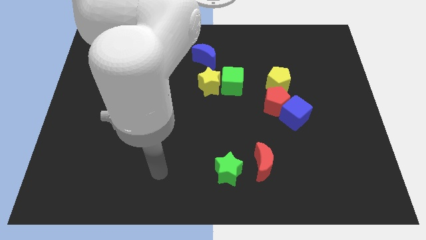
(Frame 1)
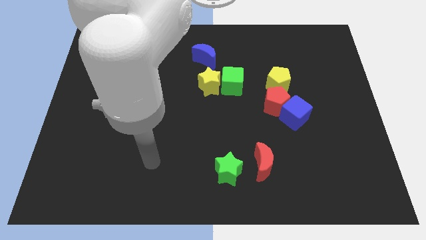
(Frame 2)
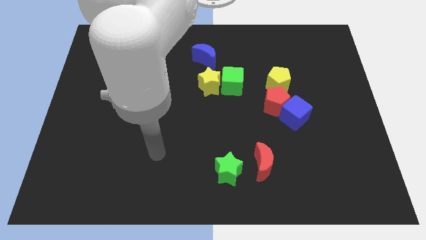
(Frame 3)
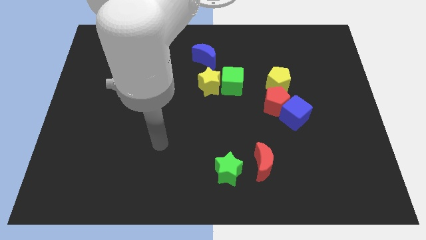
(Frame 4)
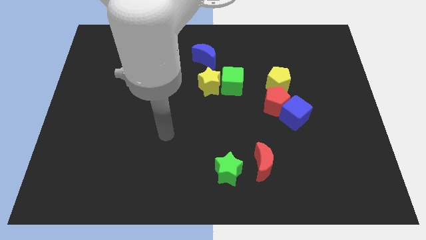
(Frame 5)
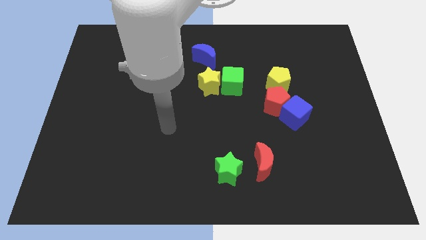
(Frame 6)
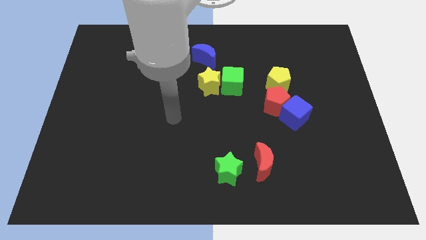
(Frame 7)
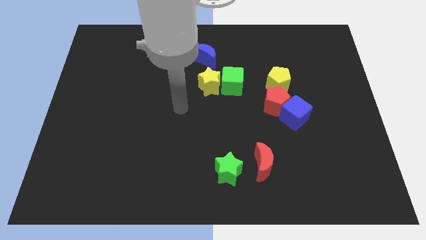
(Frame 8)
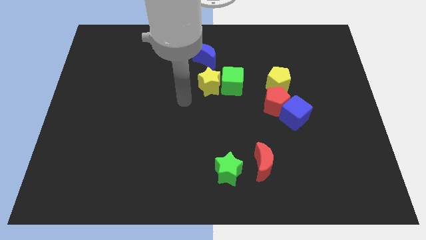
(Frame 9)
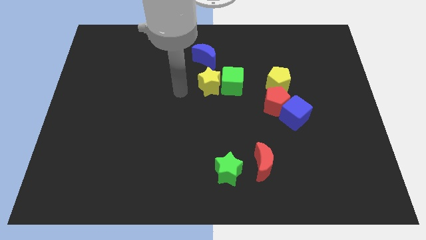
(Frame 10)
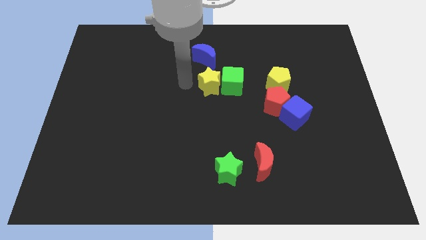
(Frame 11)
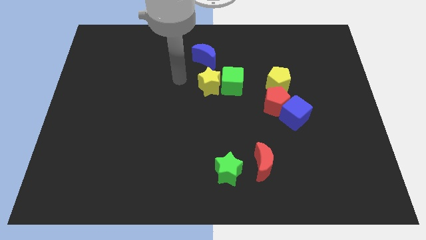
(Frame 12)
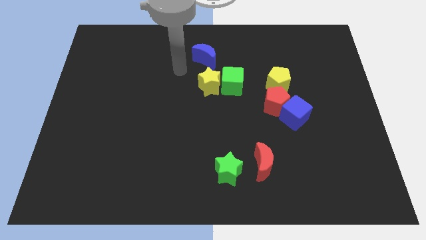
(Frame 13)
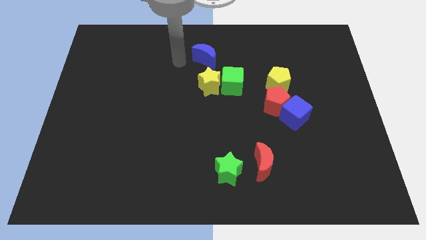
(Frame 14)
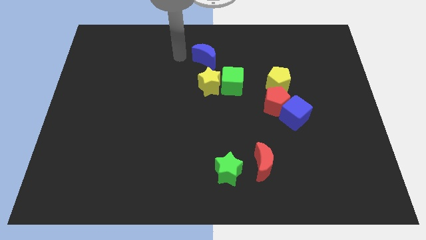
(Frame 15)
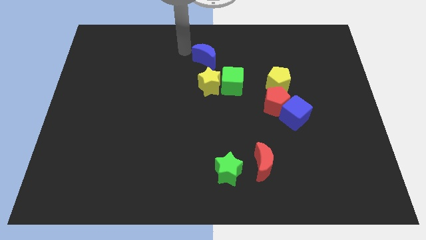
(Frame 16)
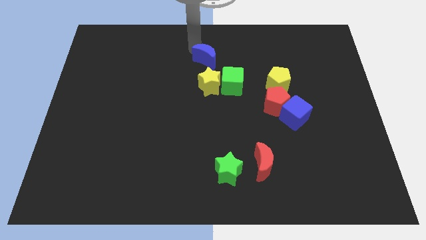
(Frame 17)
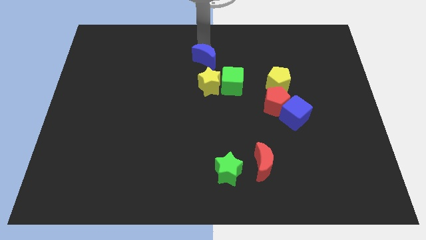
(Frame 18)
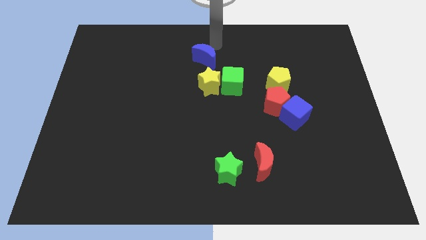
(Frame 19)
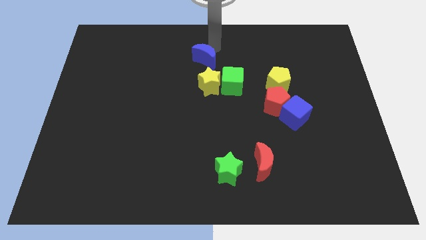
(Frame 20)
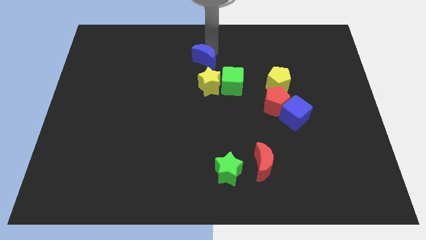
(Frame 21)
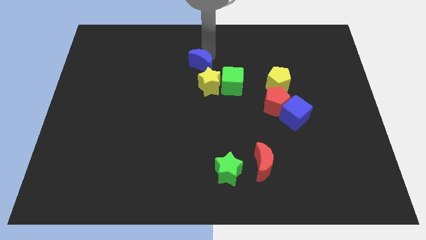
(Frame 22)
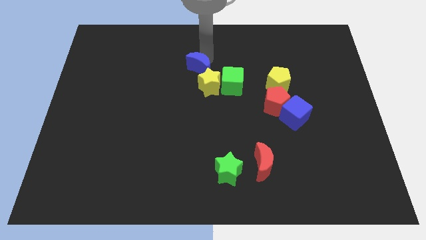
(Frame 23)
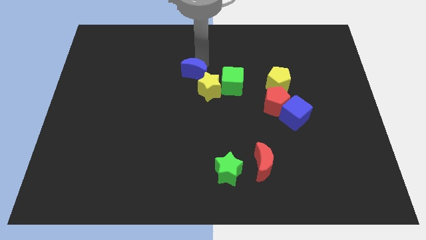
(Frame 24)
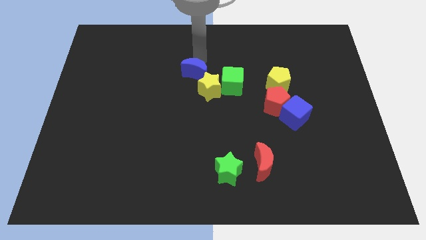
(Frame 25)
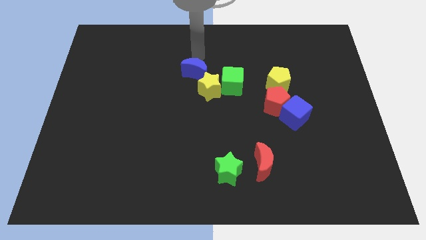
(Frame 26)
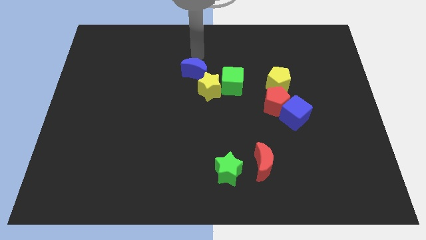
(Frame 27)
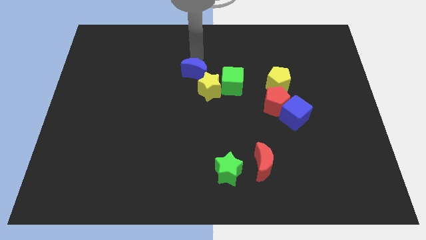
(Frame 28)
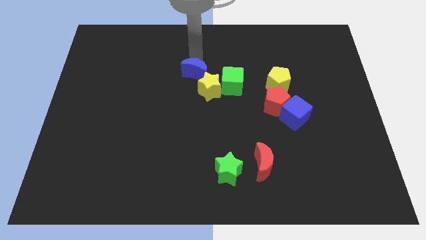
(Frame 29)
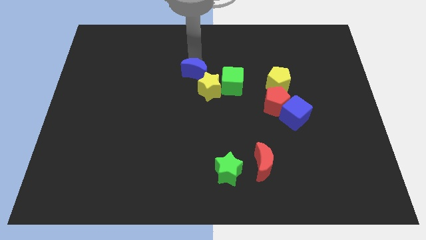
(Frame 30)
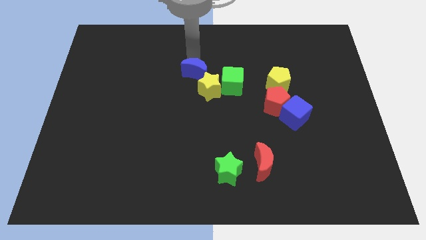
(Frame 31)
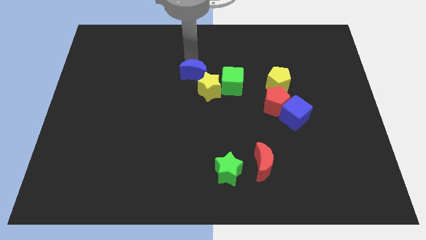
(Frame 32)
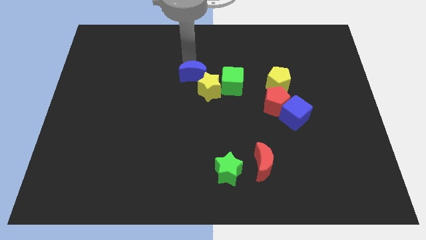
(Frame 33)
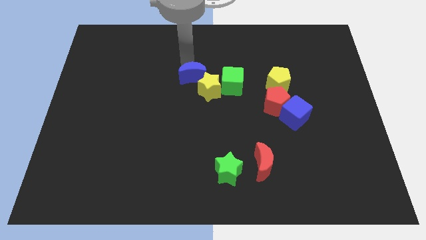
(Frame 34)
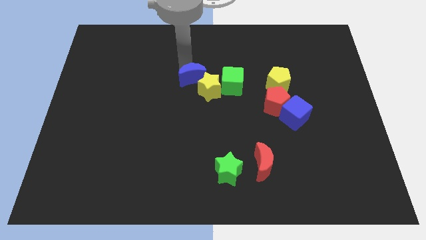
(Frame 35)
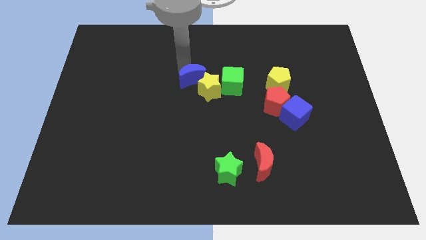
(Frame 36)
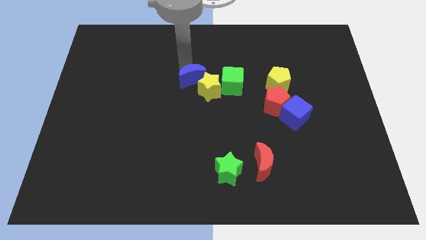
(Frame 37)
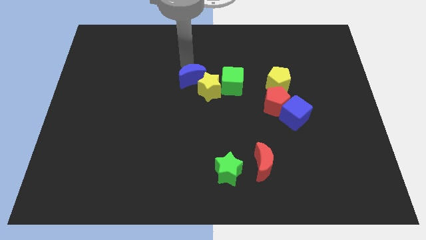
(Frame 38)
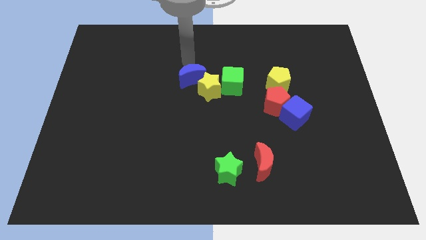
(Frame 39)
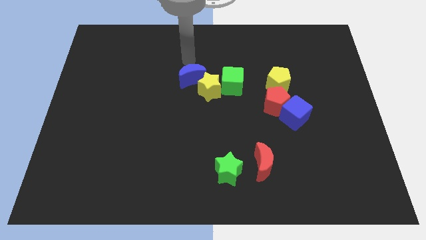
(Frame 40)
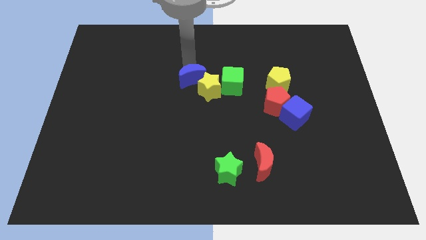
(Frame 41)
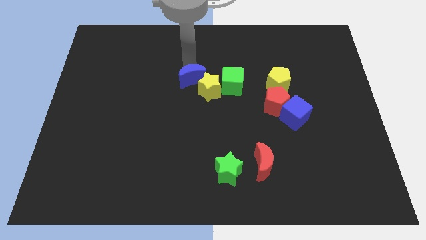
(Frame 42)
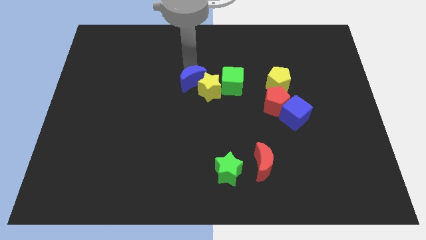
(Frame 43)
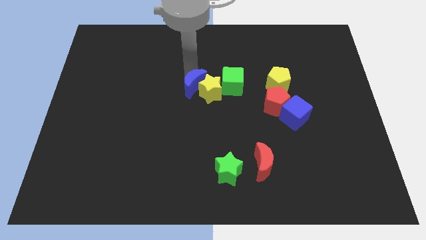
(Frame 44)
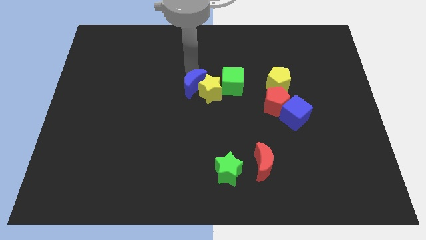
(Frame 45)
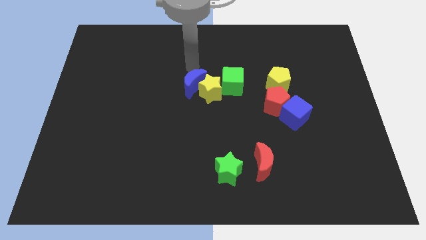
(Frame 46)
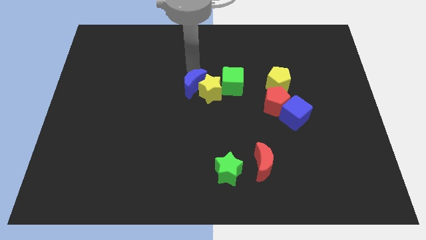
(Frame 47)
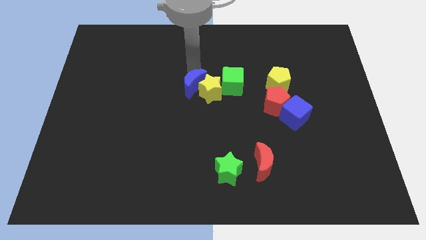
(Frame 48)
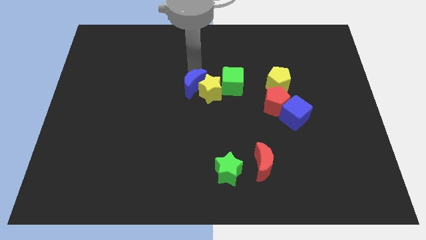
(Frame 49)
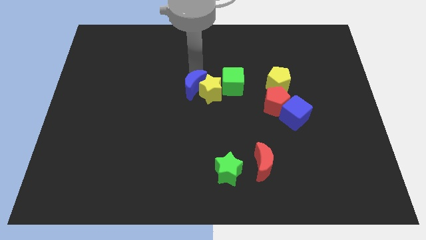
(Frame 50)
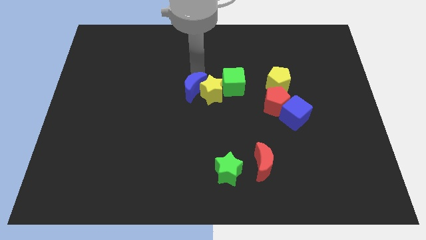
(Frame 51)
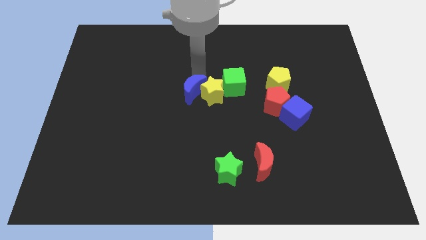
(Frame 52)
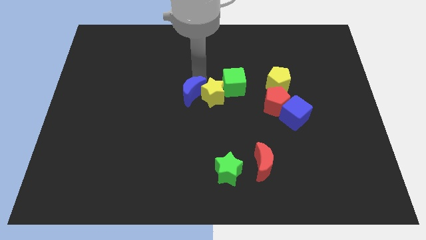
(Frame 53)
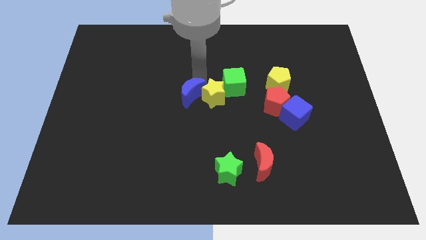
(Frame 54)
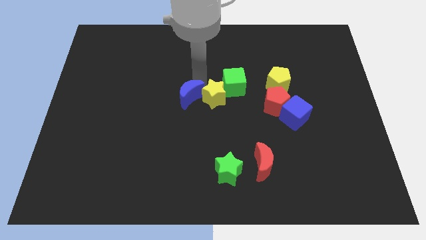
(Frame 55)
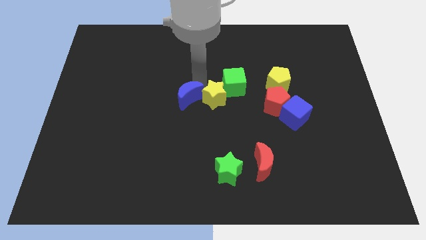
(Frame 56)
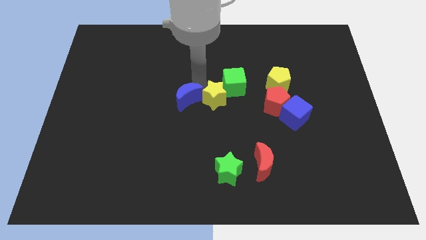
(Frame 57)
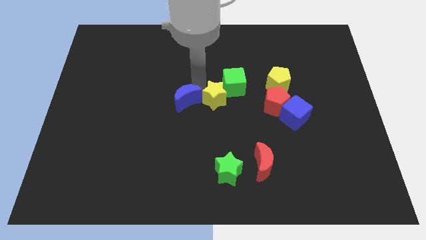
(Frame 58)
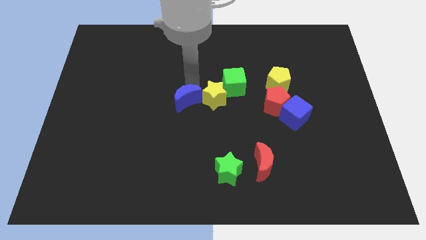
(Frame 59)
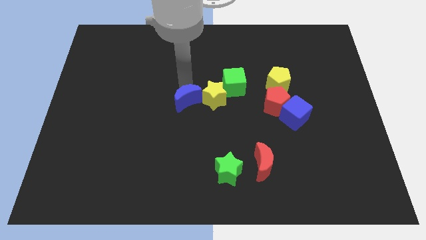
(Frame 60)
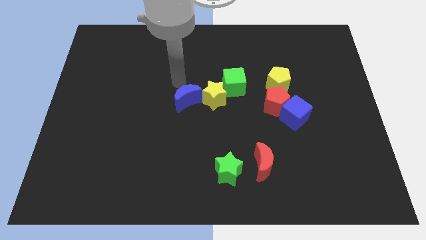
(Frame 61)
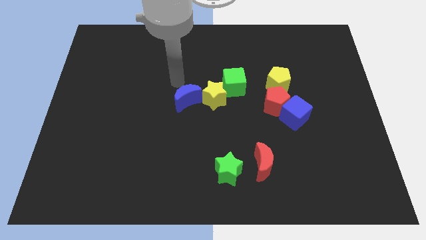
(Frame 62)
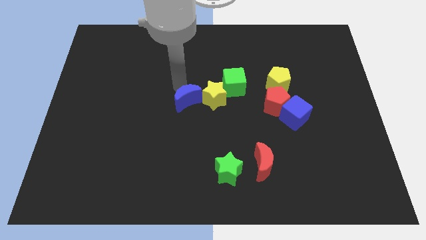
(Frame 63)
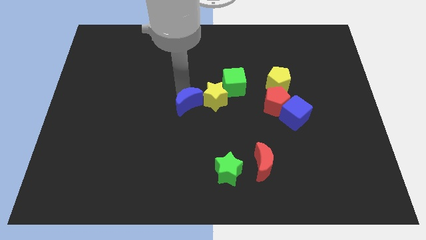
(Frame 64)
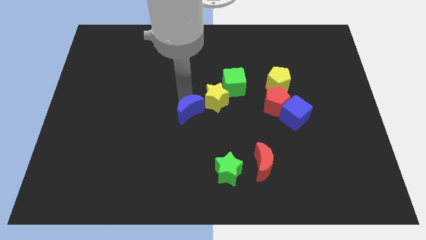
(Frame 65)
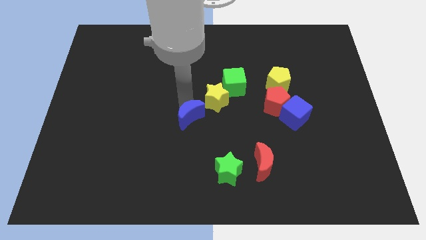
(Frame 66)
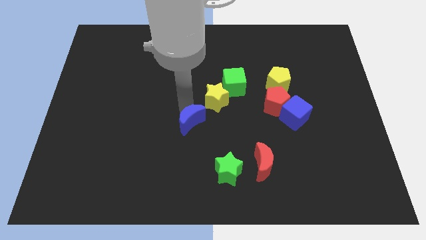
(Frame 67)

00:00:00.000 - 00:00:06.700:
slide the blue moon downwards

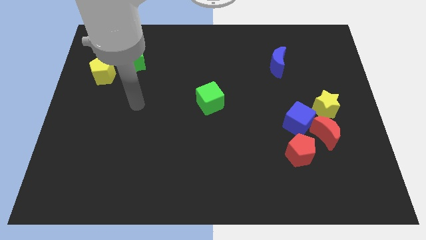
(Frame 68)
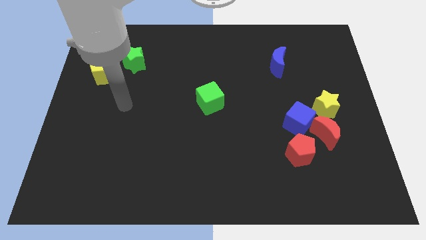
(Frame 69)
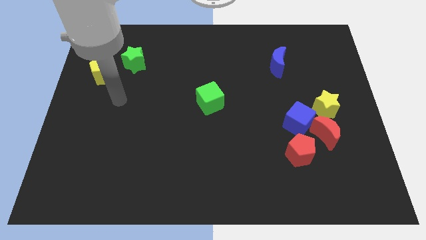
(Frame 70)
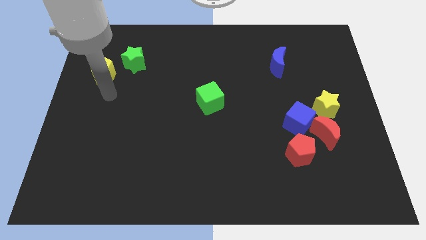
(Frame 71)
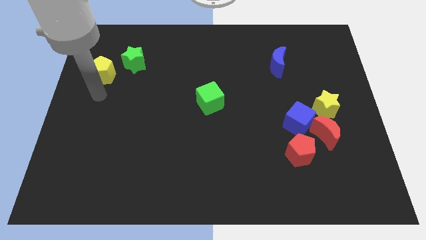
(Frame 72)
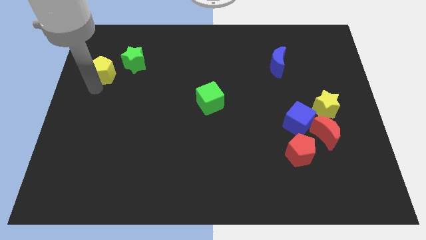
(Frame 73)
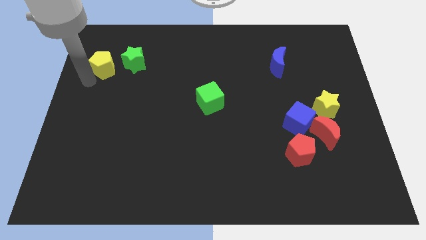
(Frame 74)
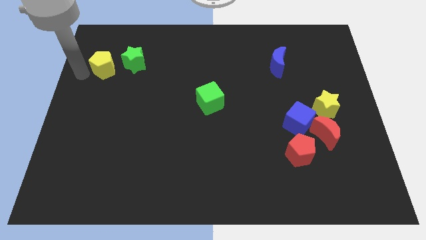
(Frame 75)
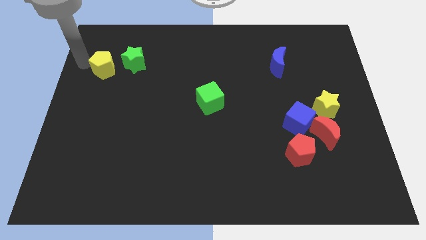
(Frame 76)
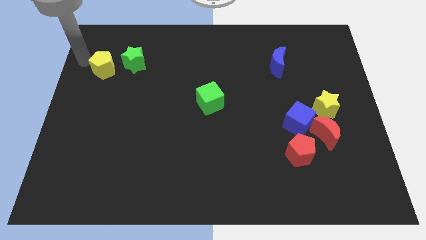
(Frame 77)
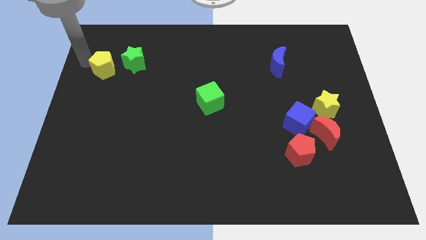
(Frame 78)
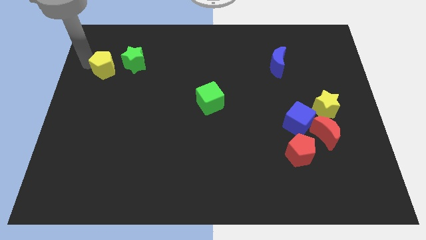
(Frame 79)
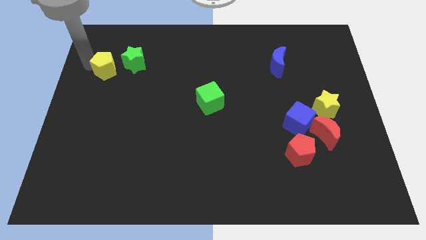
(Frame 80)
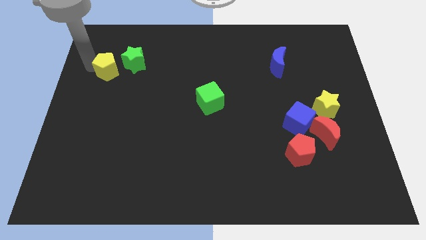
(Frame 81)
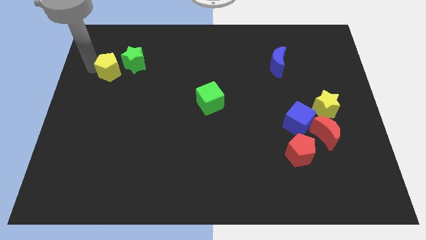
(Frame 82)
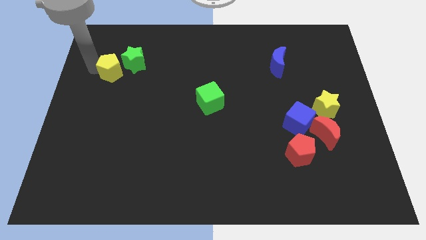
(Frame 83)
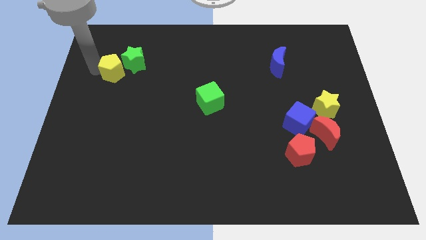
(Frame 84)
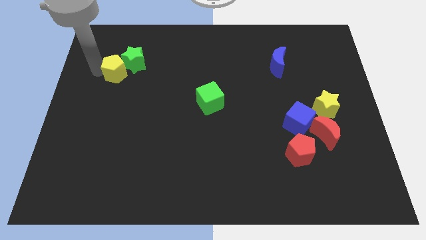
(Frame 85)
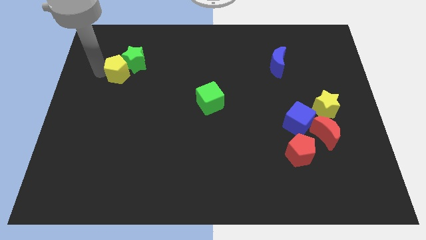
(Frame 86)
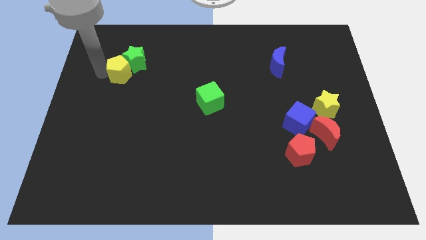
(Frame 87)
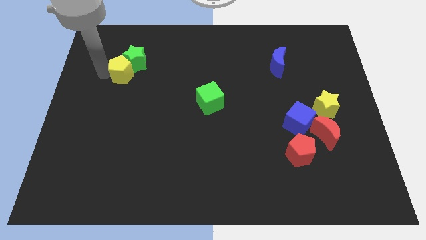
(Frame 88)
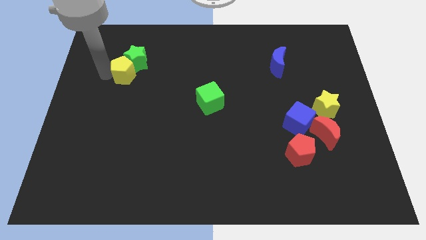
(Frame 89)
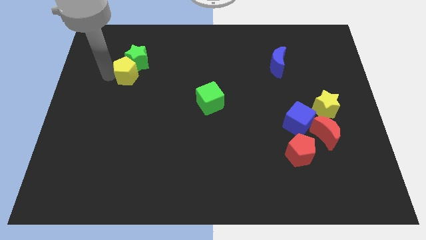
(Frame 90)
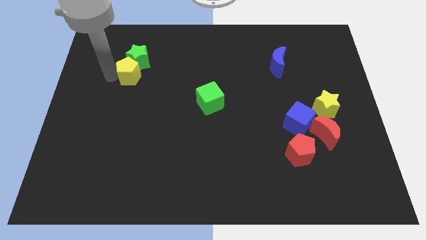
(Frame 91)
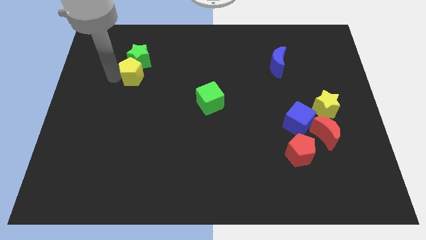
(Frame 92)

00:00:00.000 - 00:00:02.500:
push the yellow pentagon slightly to the right
